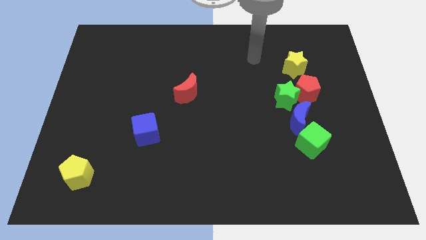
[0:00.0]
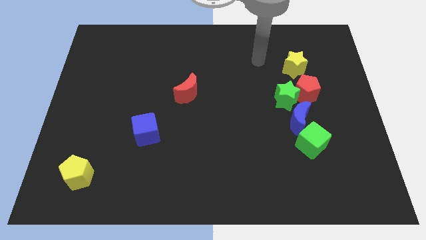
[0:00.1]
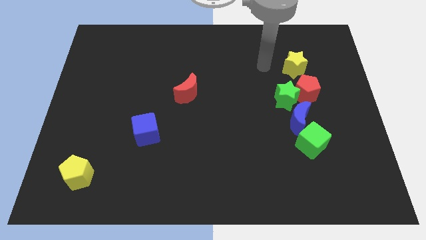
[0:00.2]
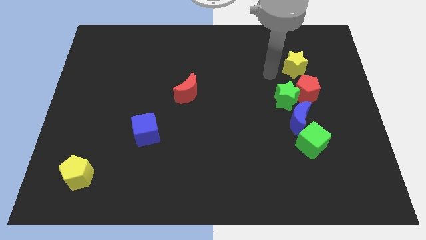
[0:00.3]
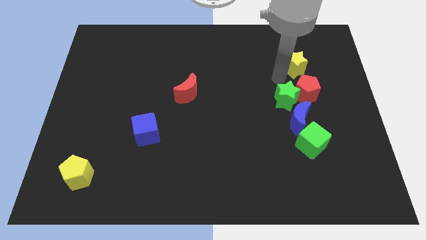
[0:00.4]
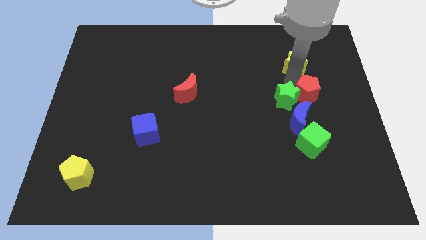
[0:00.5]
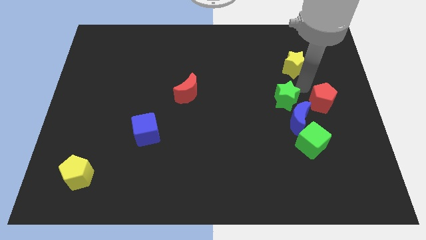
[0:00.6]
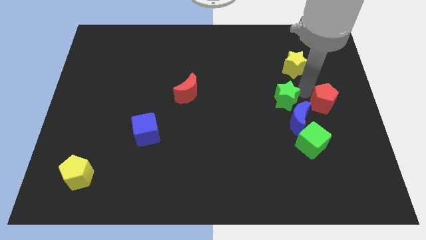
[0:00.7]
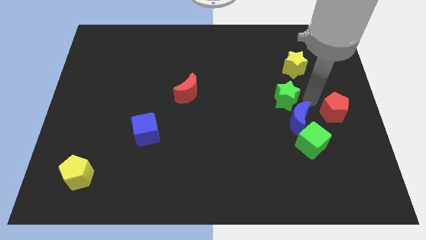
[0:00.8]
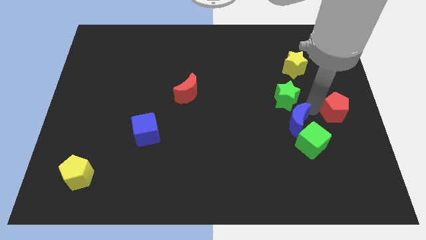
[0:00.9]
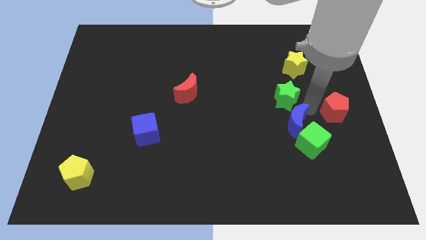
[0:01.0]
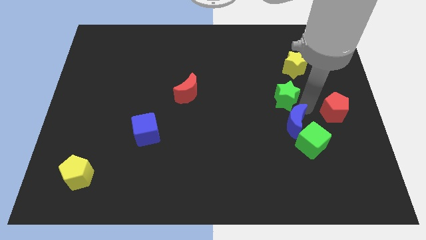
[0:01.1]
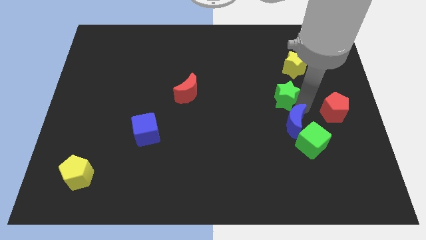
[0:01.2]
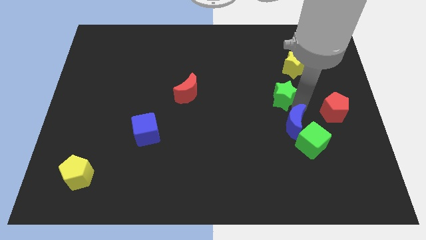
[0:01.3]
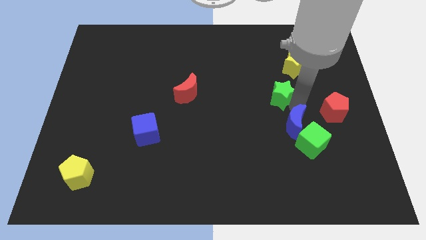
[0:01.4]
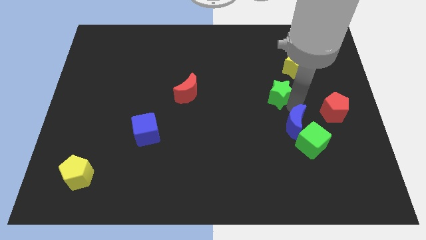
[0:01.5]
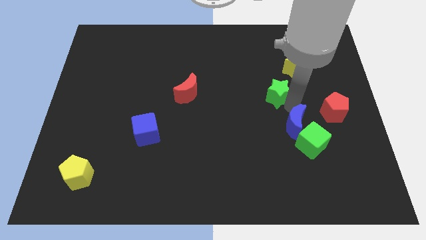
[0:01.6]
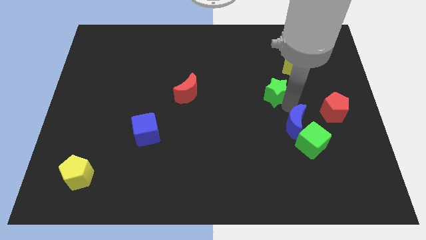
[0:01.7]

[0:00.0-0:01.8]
separate the green star from the red pentagon and blue moon

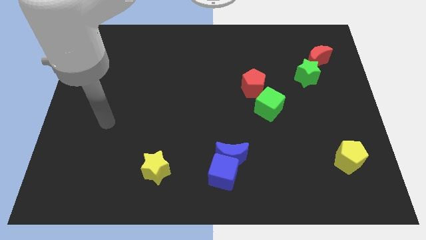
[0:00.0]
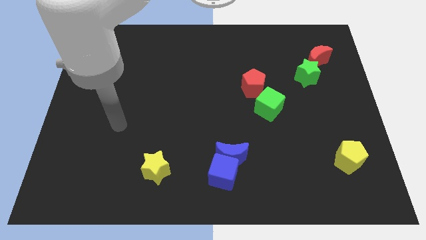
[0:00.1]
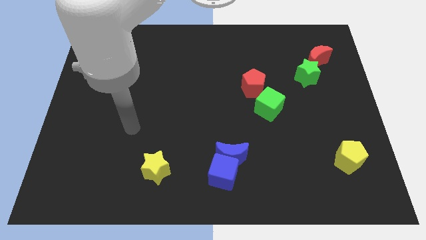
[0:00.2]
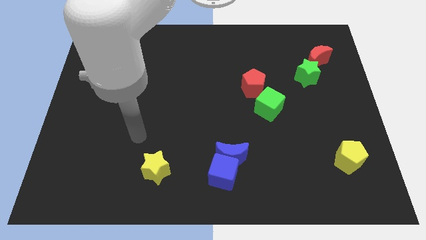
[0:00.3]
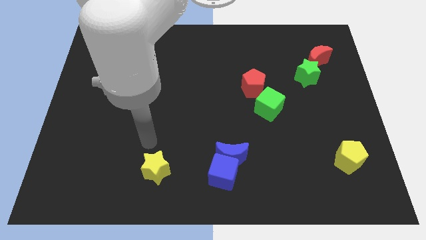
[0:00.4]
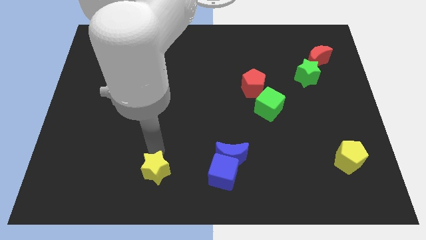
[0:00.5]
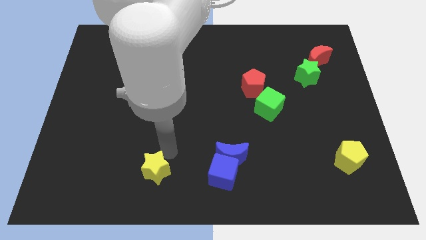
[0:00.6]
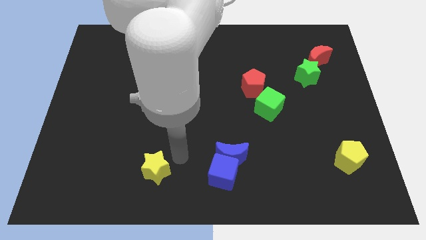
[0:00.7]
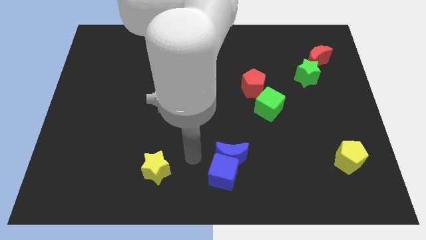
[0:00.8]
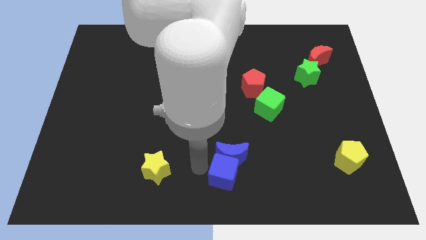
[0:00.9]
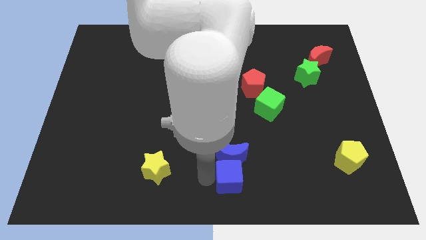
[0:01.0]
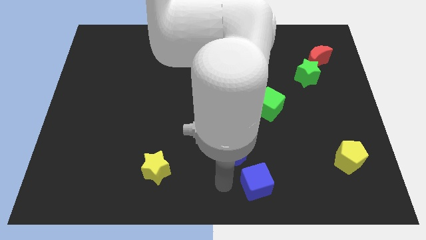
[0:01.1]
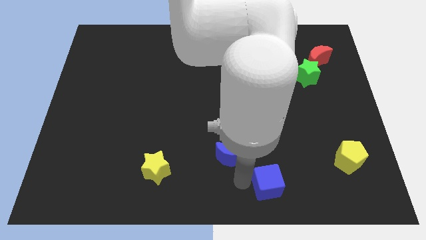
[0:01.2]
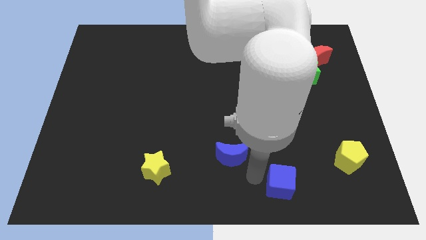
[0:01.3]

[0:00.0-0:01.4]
move the blue moon away from the blue cube

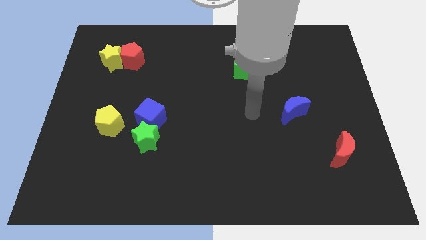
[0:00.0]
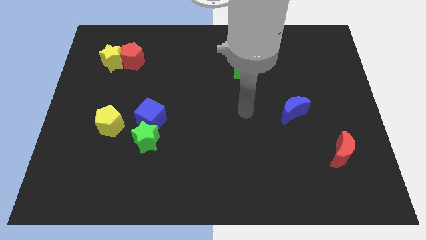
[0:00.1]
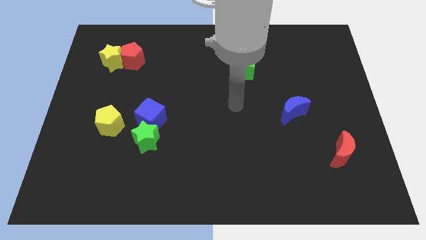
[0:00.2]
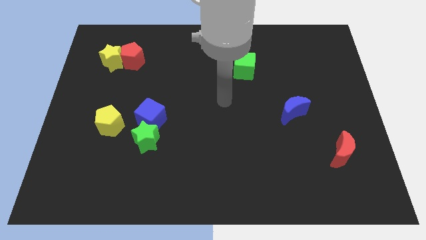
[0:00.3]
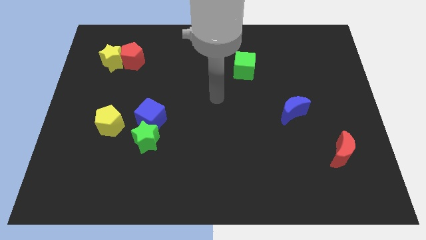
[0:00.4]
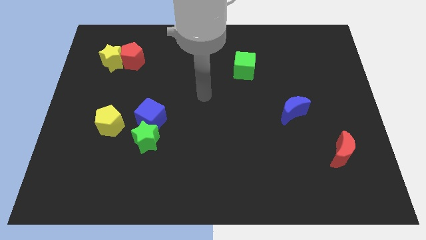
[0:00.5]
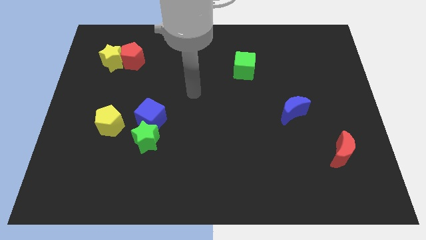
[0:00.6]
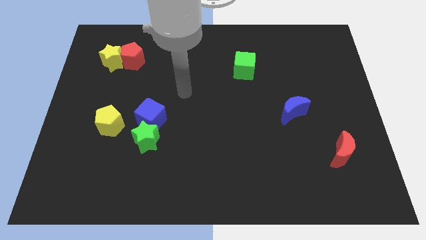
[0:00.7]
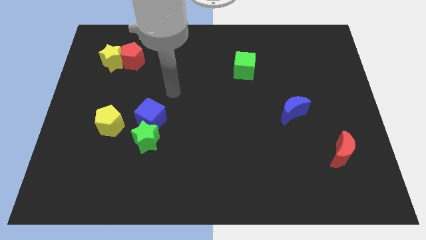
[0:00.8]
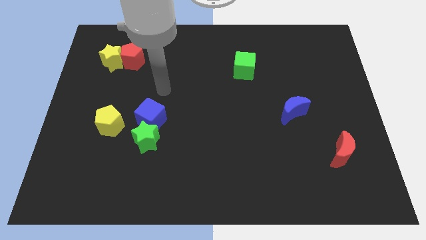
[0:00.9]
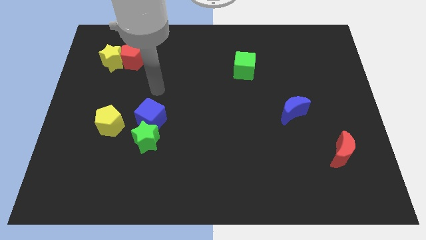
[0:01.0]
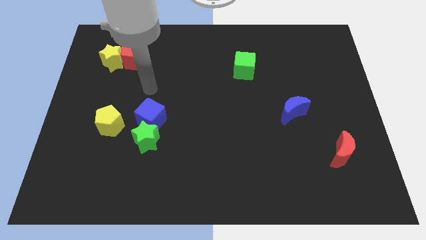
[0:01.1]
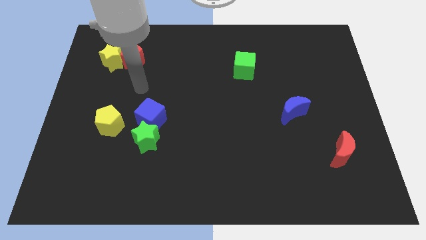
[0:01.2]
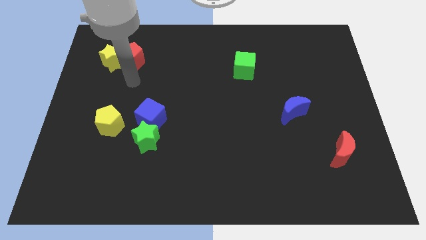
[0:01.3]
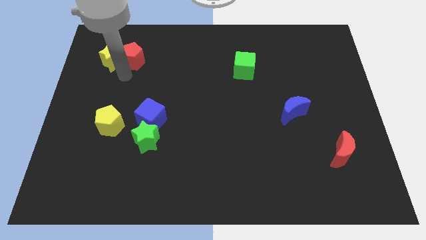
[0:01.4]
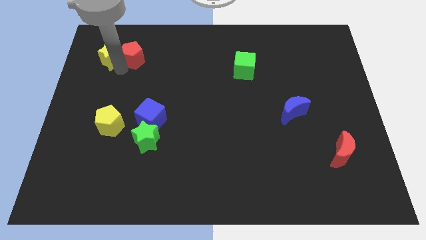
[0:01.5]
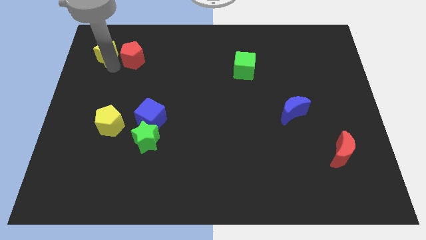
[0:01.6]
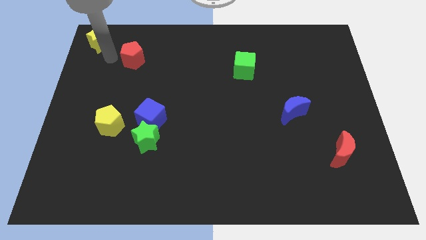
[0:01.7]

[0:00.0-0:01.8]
pull the red pentagon apart from the yellow star

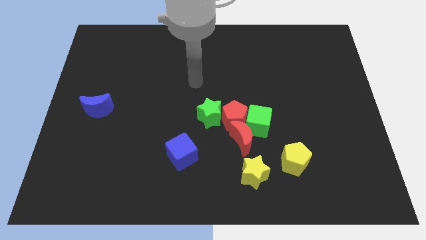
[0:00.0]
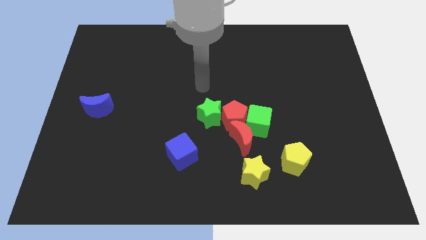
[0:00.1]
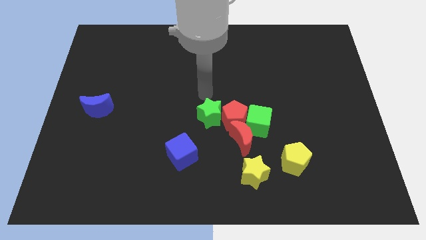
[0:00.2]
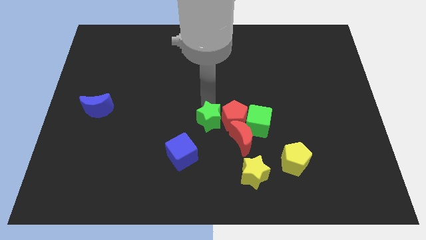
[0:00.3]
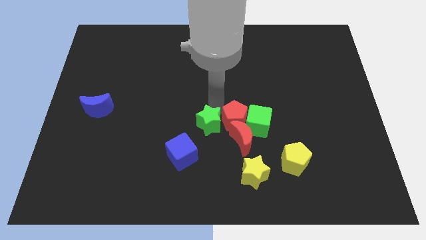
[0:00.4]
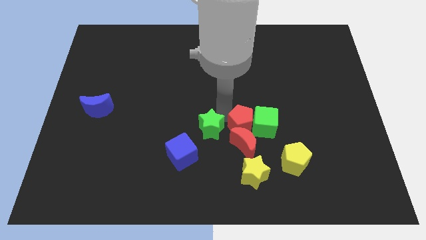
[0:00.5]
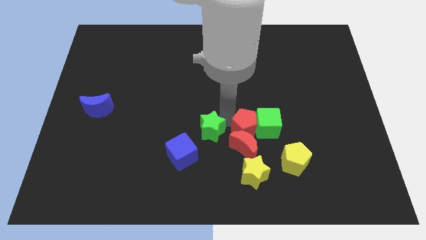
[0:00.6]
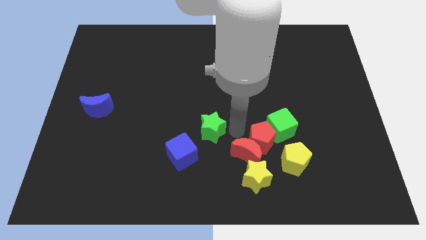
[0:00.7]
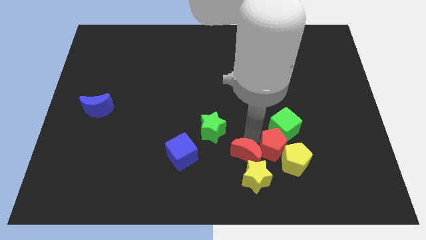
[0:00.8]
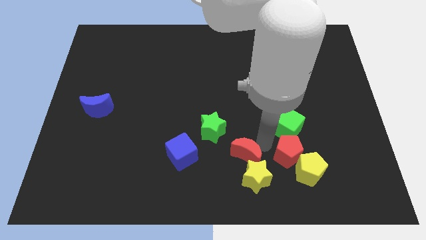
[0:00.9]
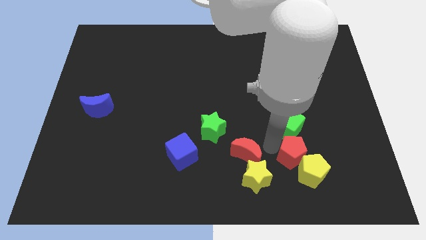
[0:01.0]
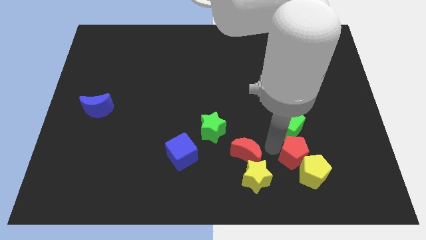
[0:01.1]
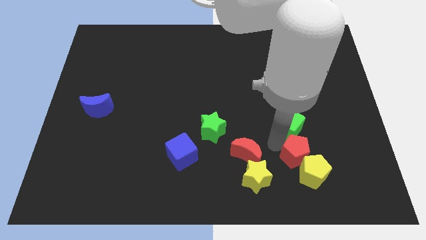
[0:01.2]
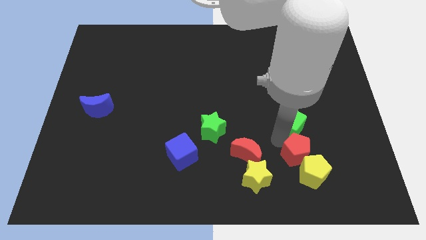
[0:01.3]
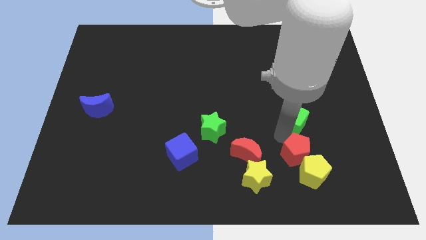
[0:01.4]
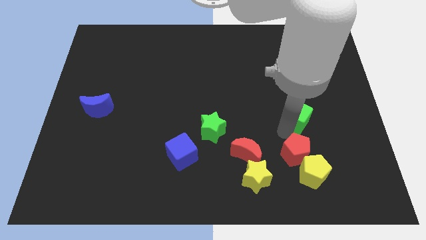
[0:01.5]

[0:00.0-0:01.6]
move the green cube away from the red moon and red pentagon

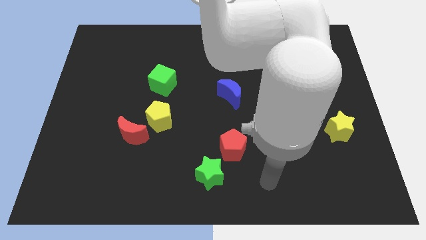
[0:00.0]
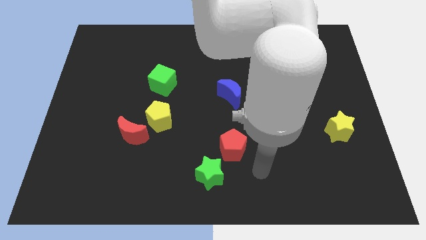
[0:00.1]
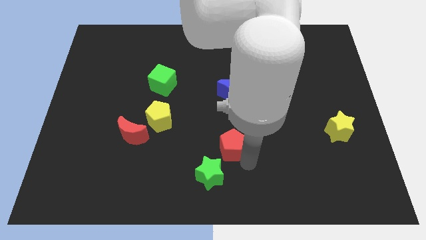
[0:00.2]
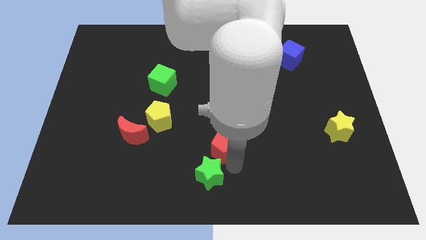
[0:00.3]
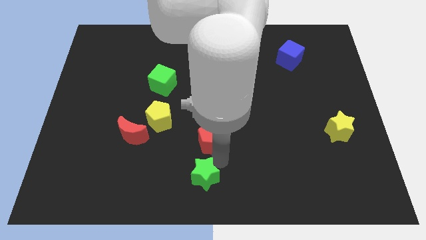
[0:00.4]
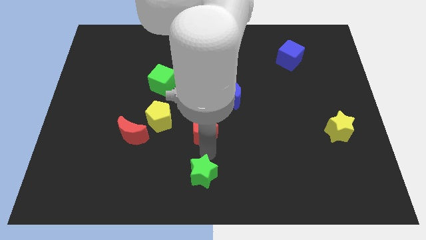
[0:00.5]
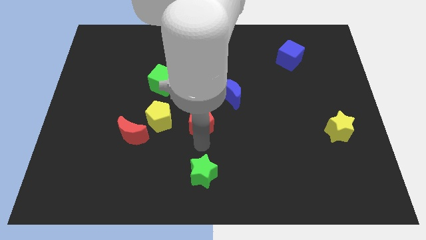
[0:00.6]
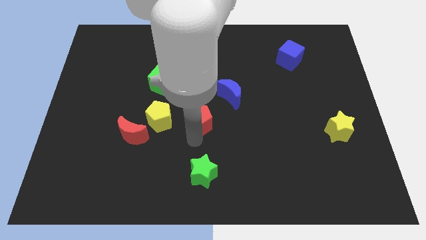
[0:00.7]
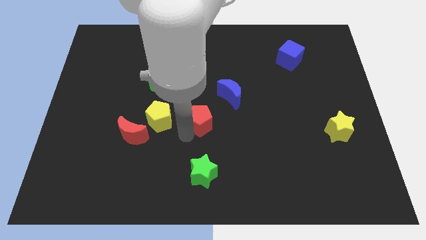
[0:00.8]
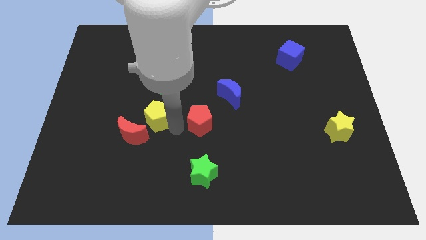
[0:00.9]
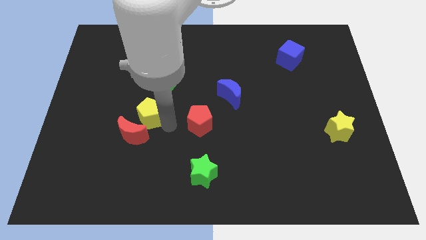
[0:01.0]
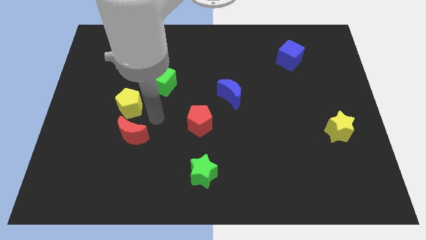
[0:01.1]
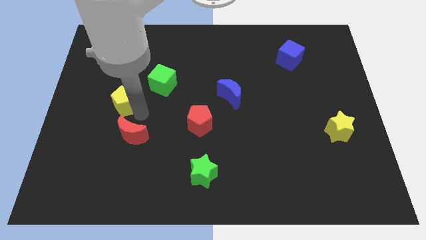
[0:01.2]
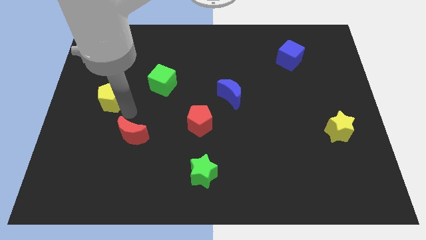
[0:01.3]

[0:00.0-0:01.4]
pull the red moon apart from the yellow pentagon

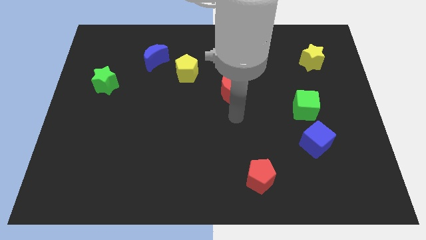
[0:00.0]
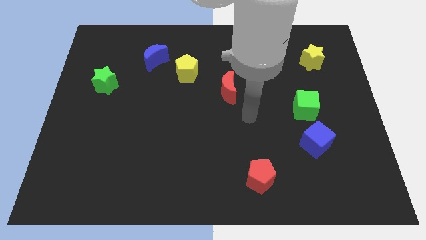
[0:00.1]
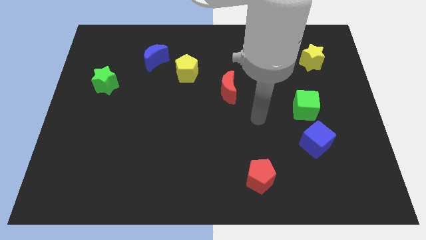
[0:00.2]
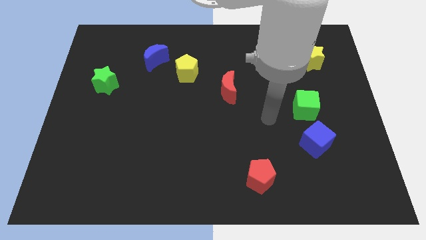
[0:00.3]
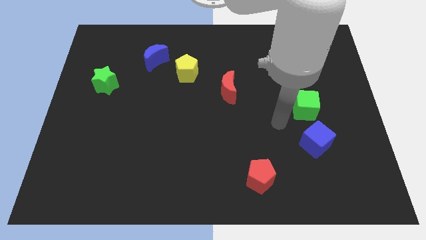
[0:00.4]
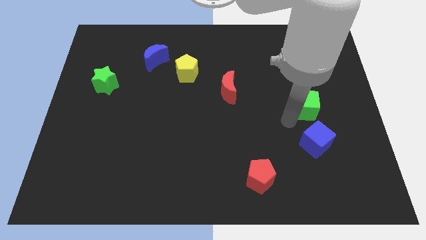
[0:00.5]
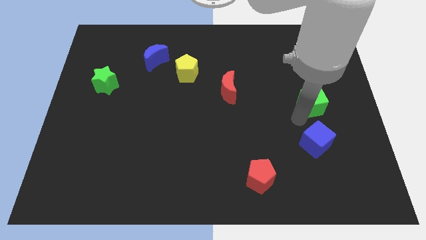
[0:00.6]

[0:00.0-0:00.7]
separate the blue cube from the green cube

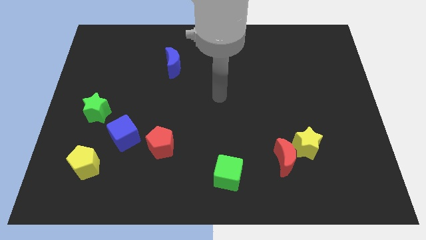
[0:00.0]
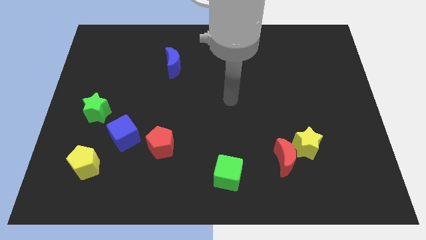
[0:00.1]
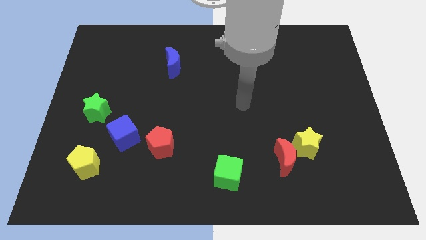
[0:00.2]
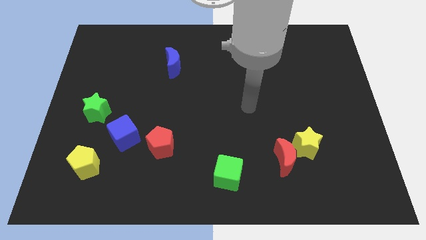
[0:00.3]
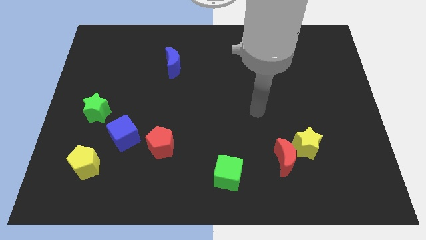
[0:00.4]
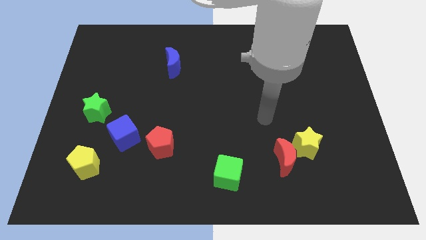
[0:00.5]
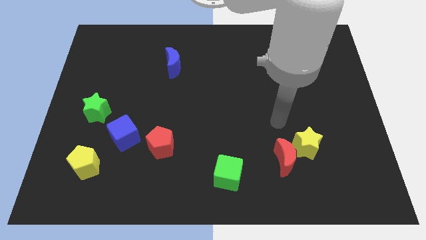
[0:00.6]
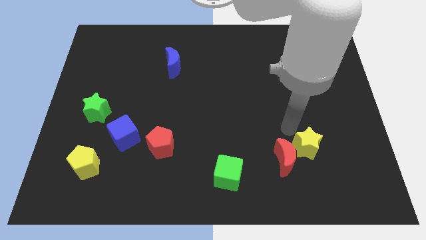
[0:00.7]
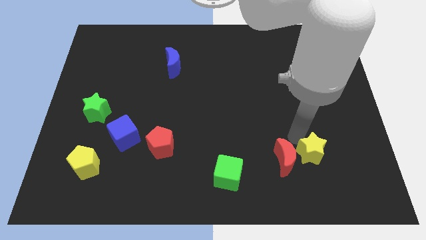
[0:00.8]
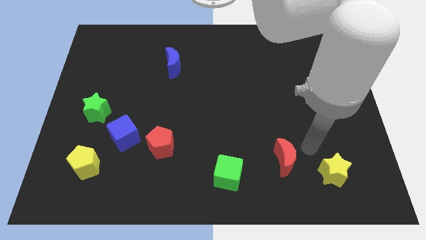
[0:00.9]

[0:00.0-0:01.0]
pull the red moon apart from the yellow star
